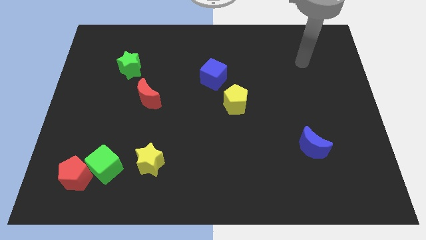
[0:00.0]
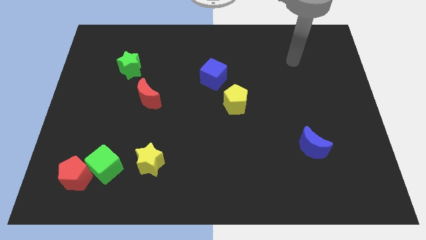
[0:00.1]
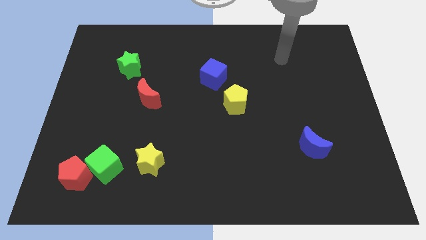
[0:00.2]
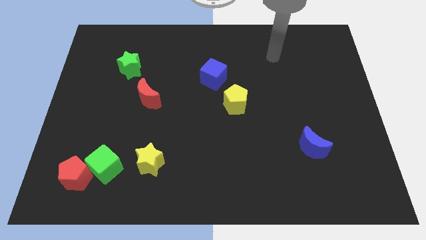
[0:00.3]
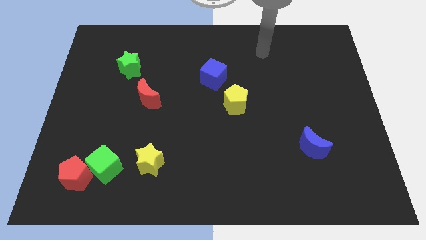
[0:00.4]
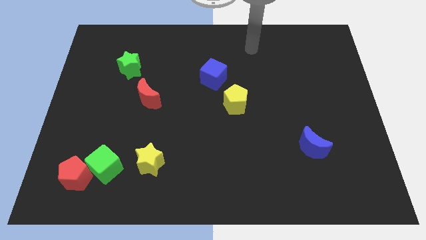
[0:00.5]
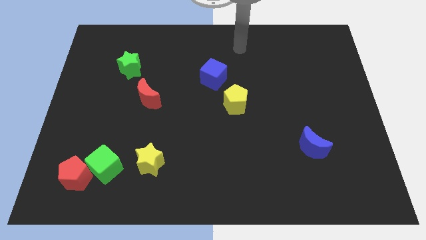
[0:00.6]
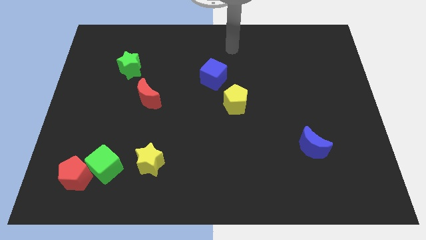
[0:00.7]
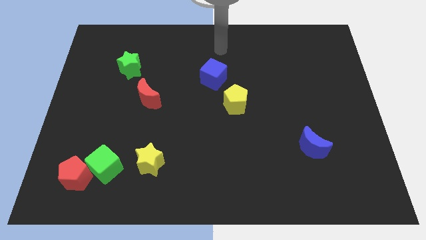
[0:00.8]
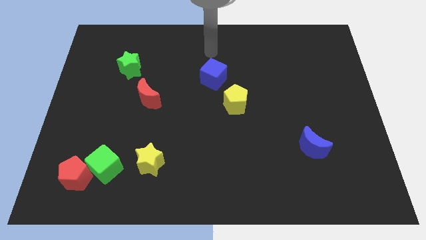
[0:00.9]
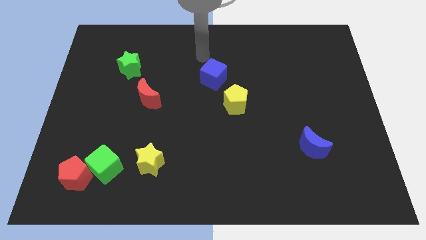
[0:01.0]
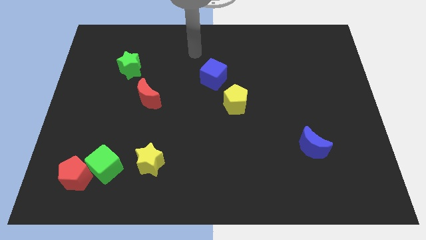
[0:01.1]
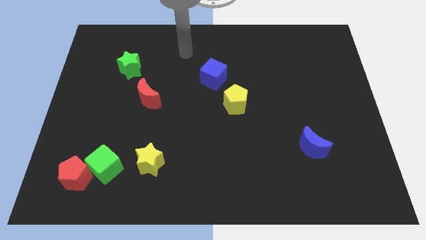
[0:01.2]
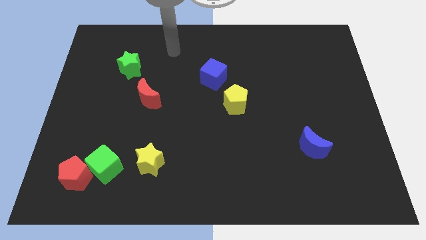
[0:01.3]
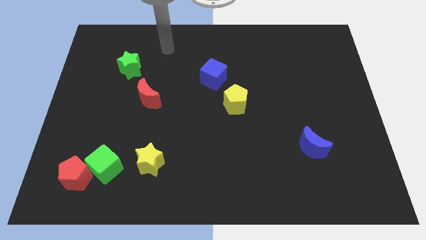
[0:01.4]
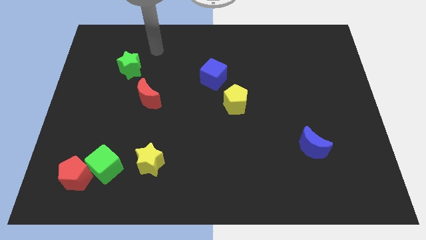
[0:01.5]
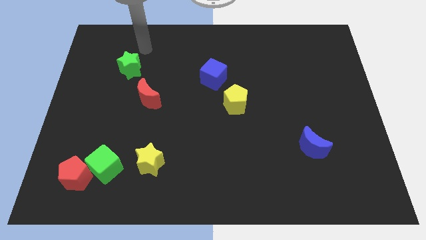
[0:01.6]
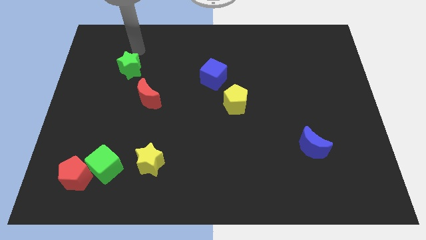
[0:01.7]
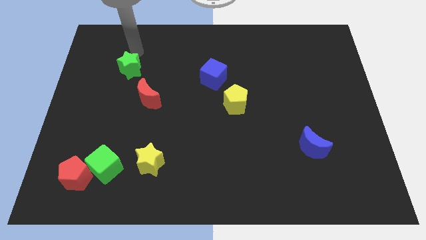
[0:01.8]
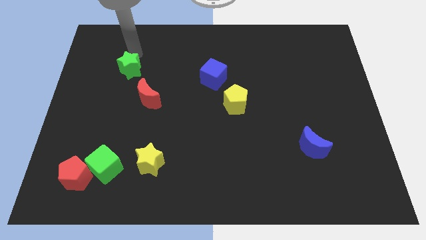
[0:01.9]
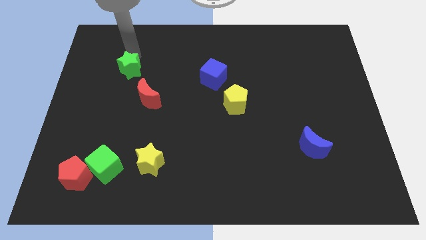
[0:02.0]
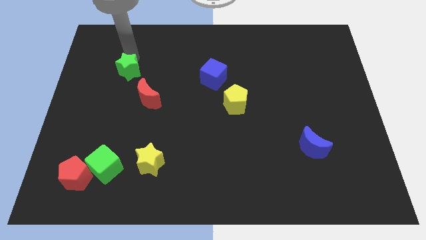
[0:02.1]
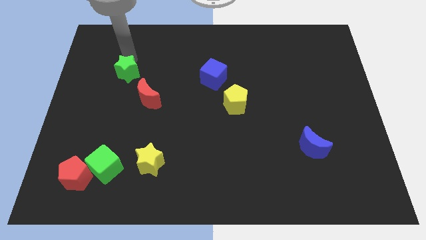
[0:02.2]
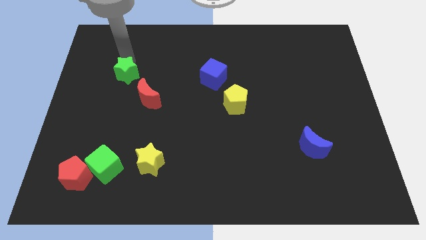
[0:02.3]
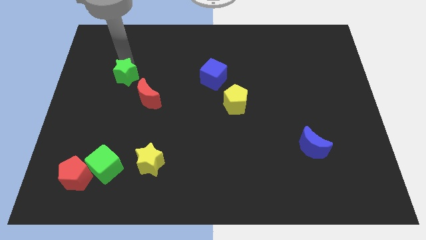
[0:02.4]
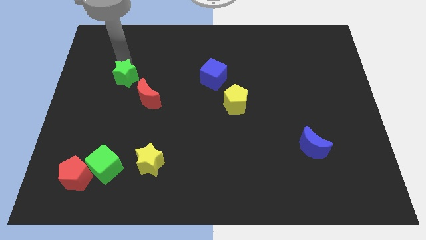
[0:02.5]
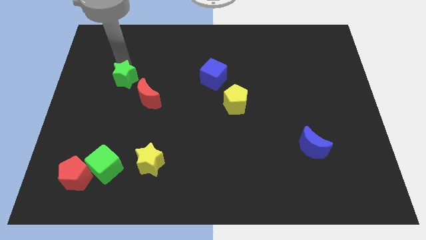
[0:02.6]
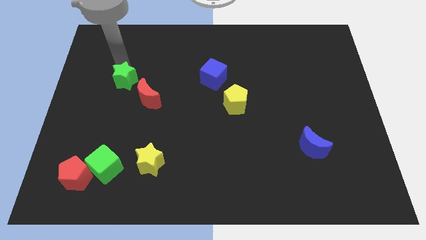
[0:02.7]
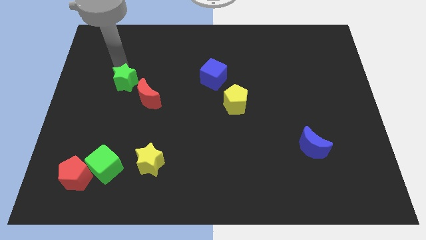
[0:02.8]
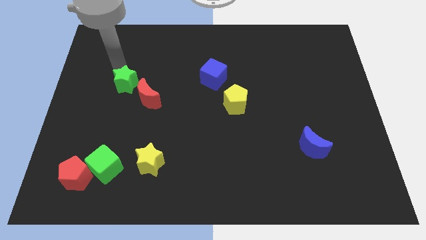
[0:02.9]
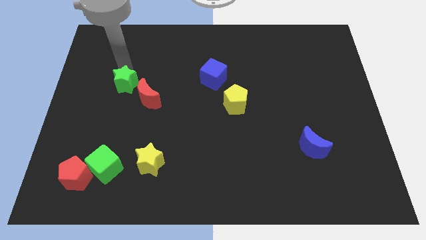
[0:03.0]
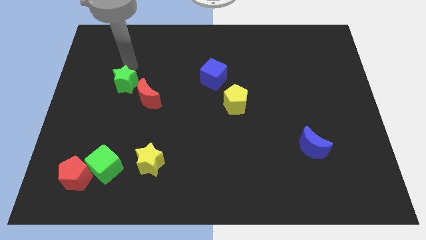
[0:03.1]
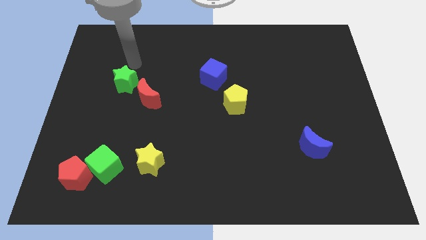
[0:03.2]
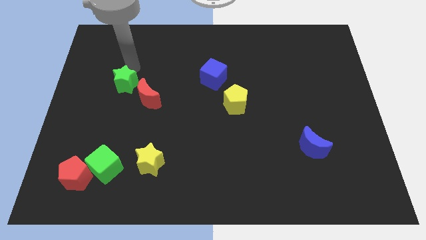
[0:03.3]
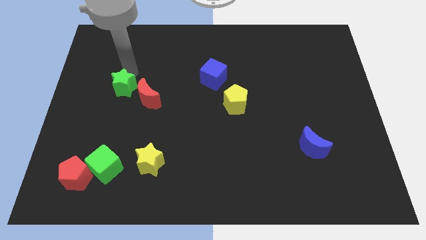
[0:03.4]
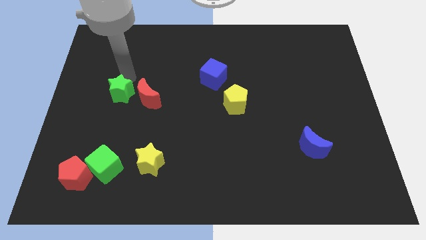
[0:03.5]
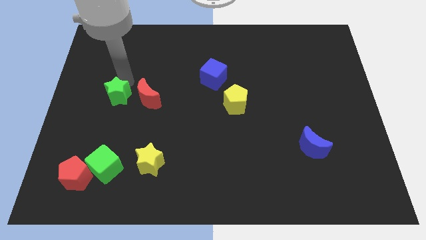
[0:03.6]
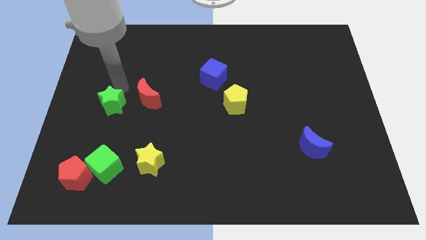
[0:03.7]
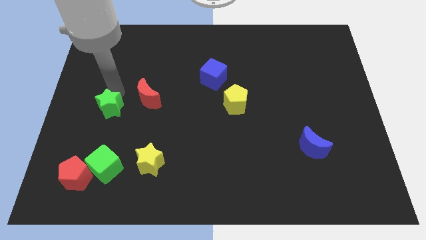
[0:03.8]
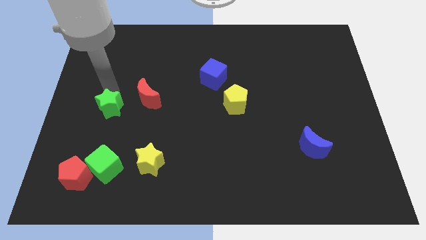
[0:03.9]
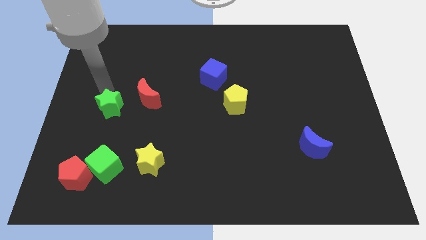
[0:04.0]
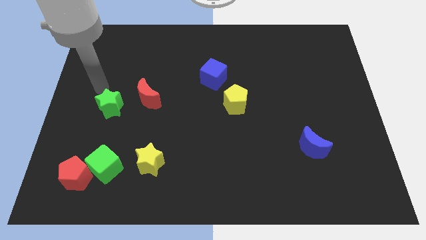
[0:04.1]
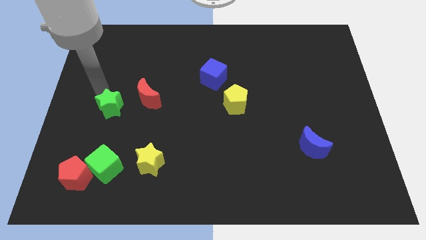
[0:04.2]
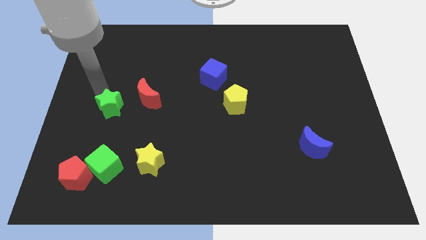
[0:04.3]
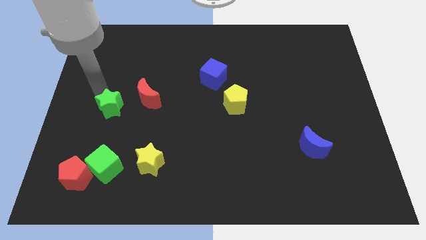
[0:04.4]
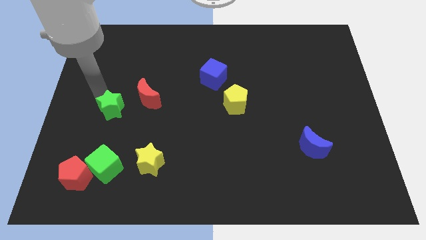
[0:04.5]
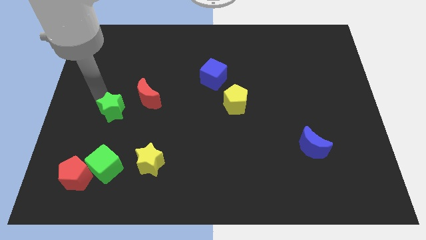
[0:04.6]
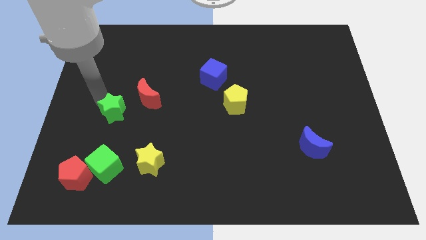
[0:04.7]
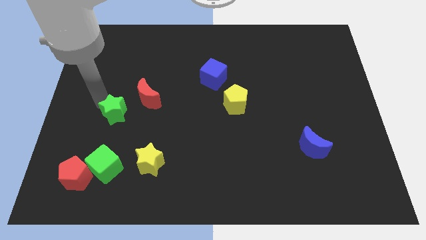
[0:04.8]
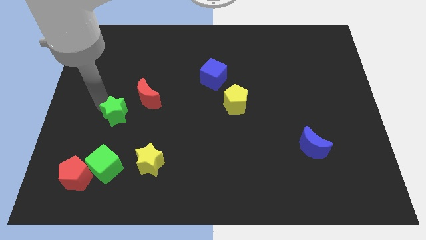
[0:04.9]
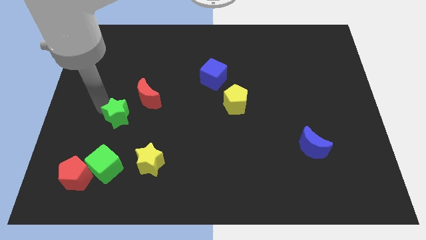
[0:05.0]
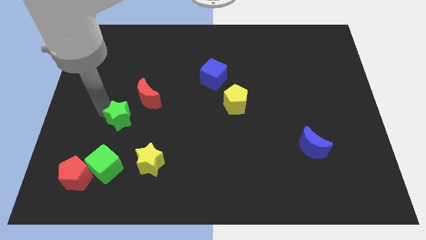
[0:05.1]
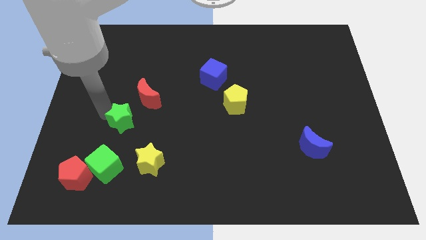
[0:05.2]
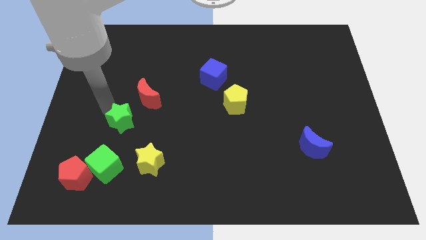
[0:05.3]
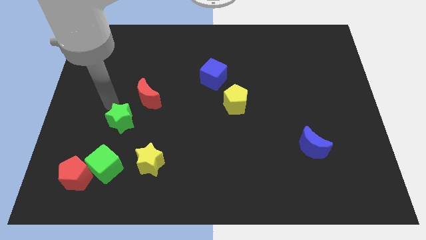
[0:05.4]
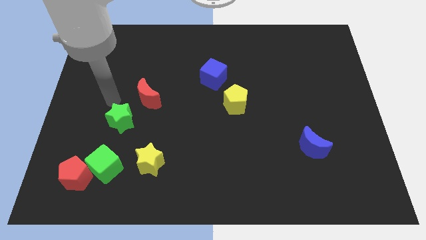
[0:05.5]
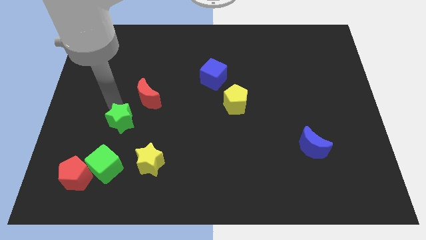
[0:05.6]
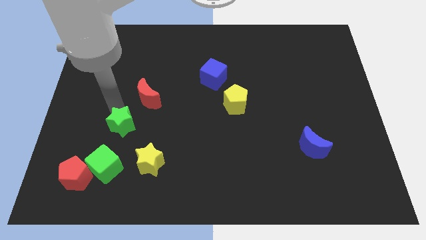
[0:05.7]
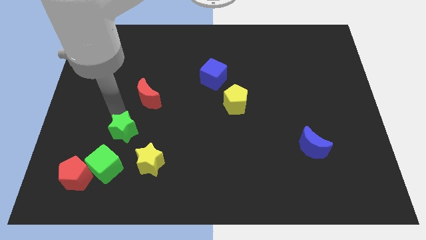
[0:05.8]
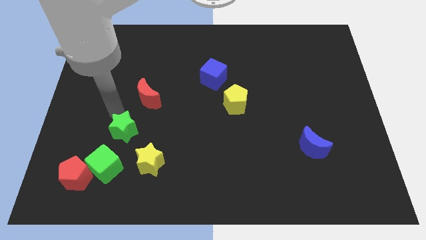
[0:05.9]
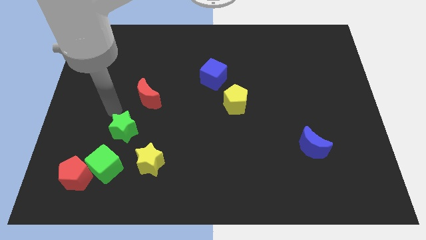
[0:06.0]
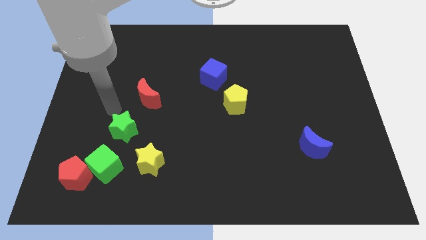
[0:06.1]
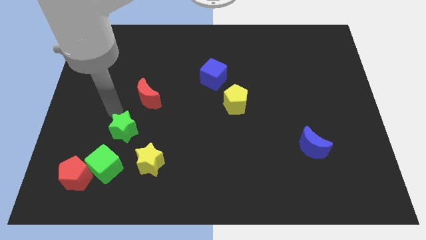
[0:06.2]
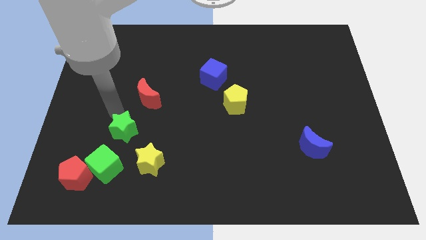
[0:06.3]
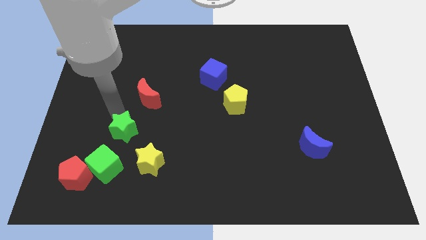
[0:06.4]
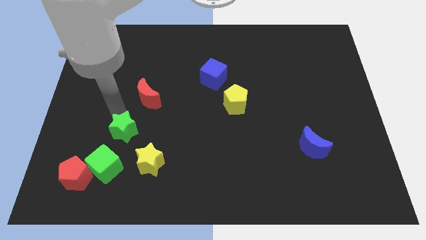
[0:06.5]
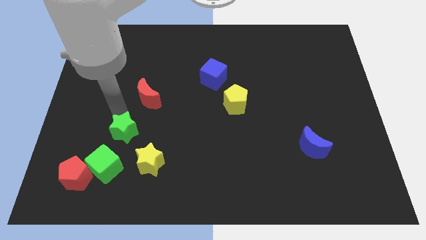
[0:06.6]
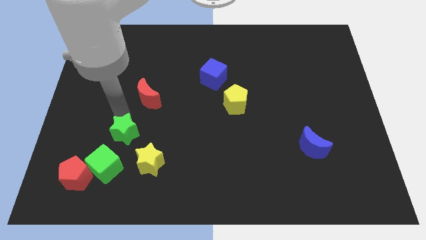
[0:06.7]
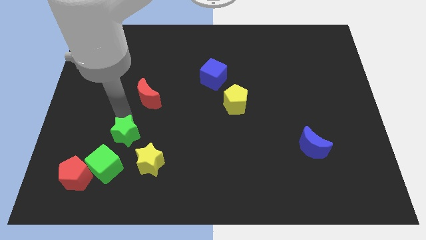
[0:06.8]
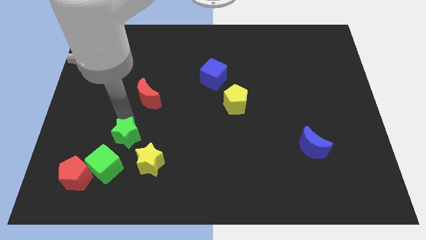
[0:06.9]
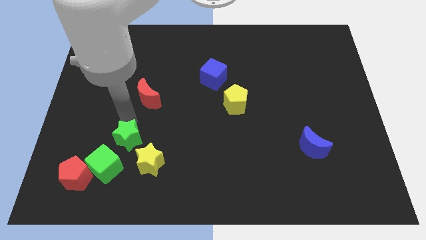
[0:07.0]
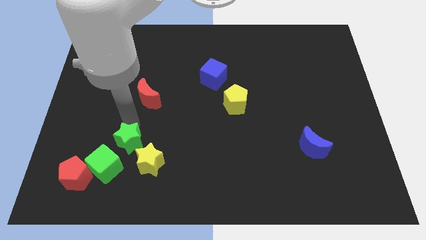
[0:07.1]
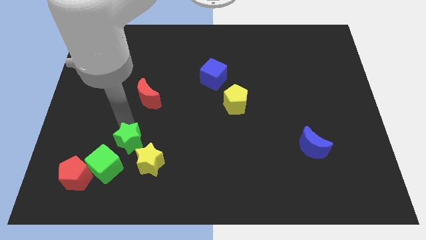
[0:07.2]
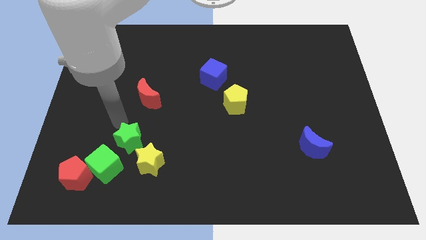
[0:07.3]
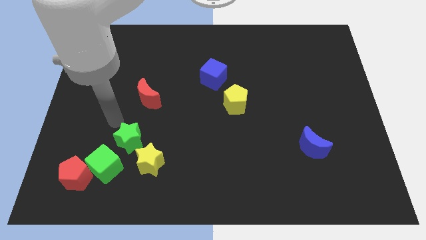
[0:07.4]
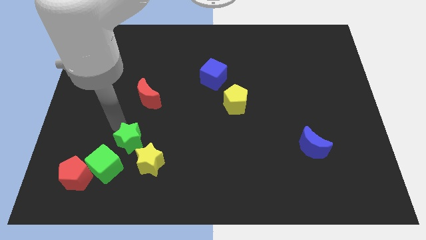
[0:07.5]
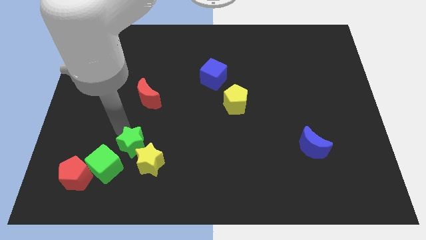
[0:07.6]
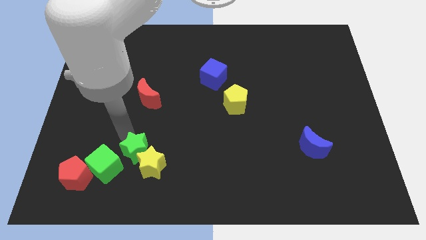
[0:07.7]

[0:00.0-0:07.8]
move the green star next to the yellow star
